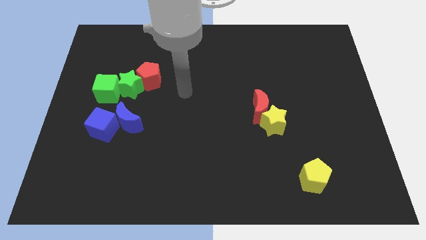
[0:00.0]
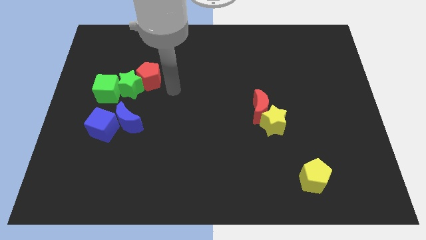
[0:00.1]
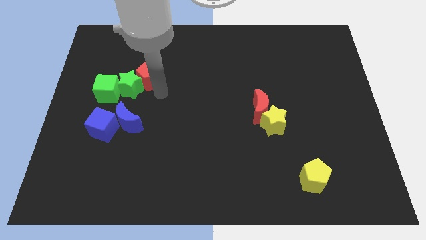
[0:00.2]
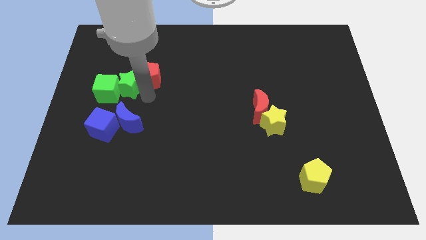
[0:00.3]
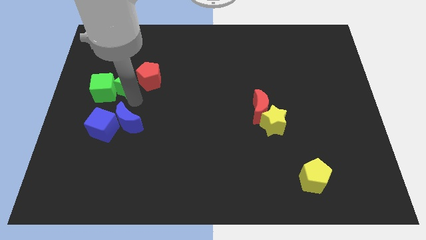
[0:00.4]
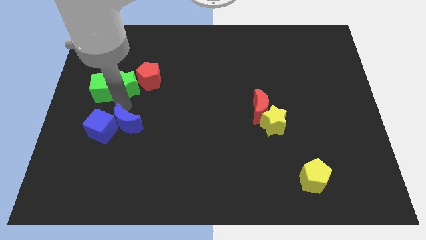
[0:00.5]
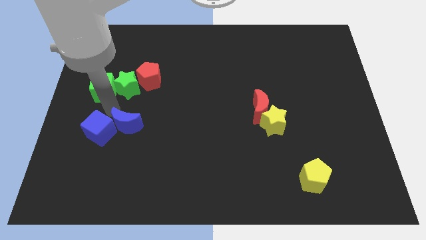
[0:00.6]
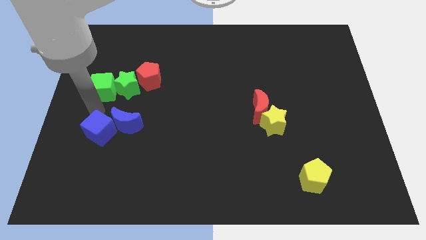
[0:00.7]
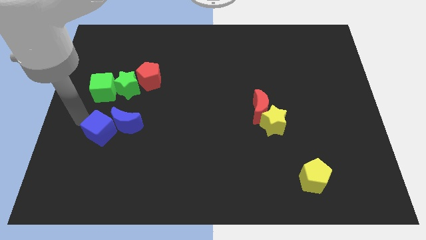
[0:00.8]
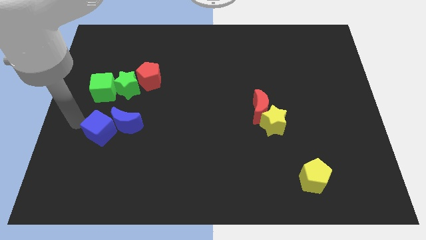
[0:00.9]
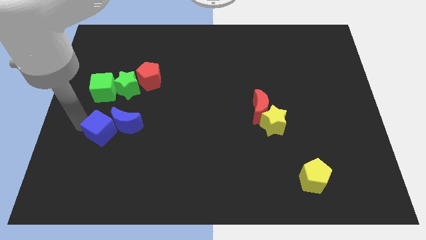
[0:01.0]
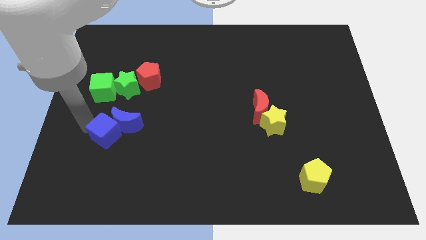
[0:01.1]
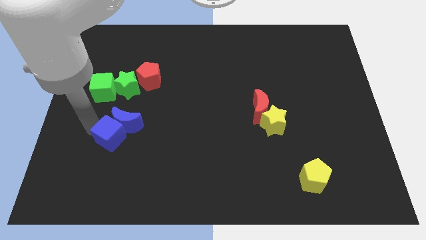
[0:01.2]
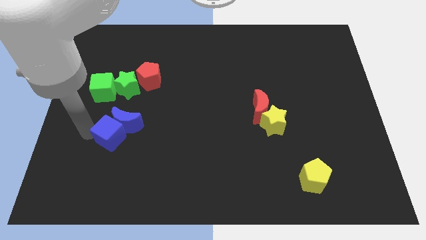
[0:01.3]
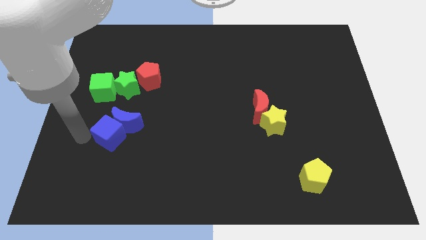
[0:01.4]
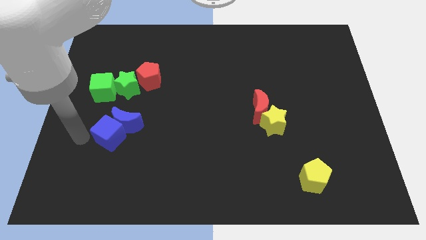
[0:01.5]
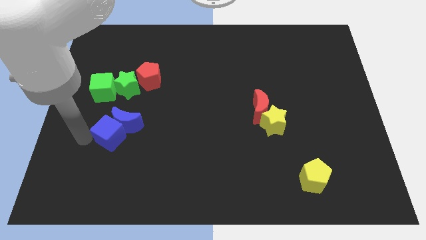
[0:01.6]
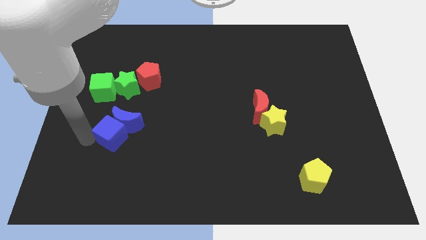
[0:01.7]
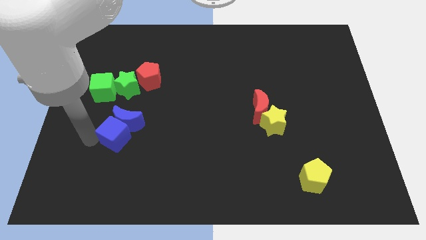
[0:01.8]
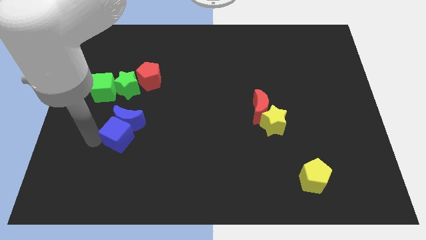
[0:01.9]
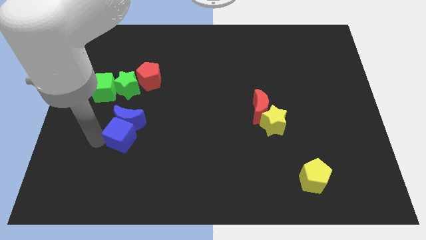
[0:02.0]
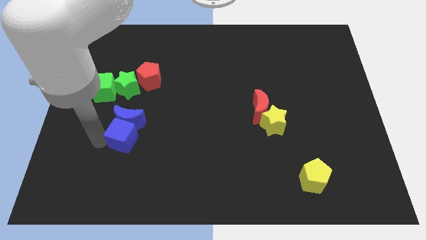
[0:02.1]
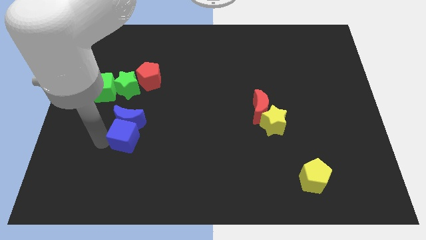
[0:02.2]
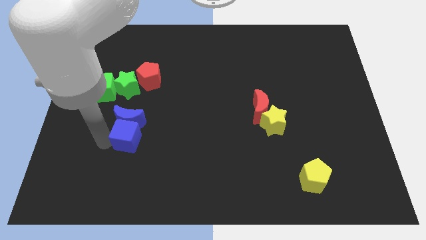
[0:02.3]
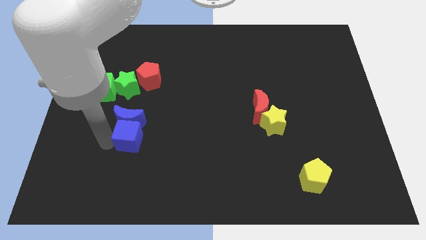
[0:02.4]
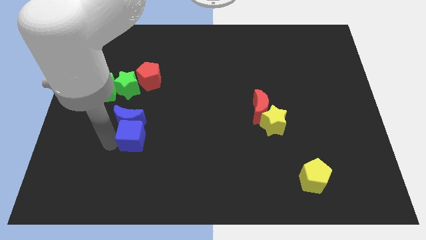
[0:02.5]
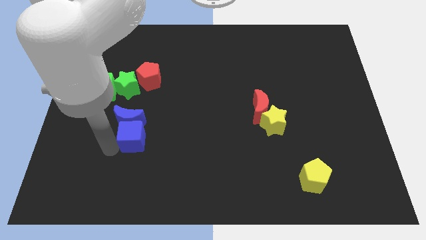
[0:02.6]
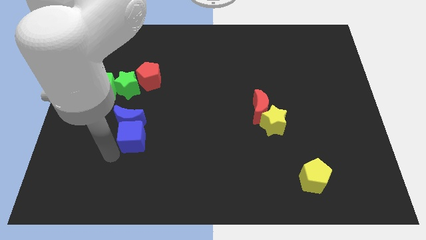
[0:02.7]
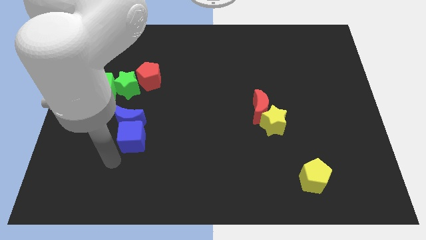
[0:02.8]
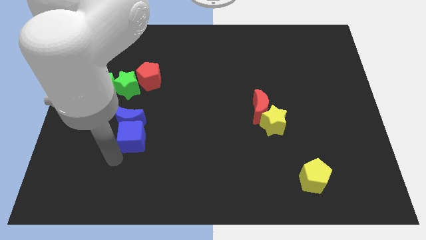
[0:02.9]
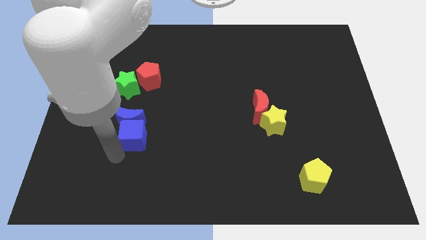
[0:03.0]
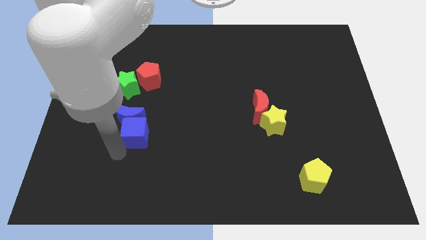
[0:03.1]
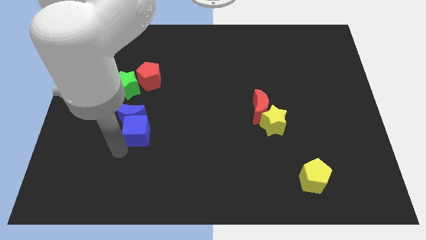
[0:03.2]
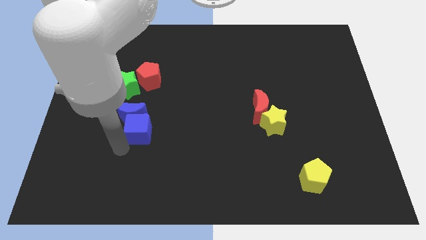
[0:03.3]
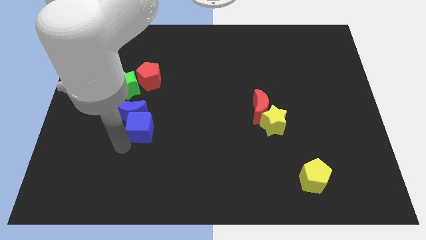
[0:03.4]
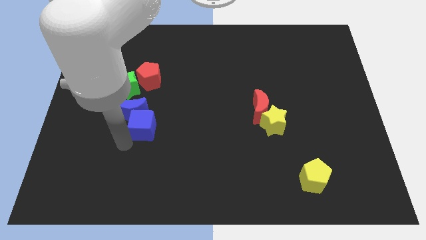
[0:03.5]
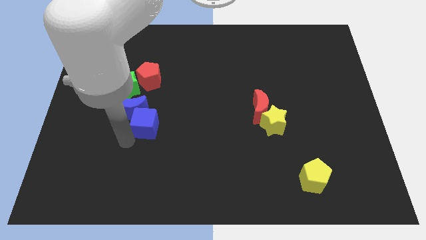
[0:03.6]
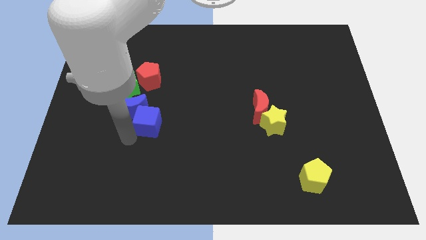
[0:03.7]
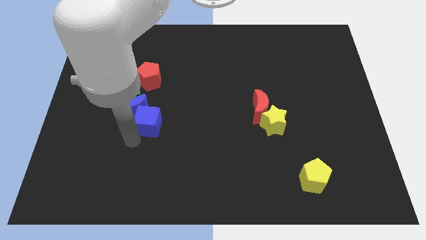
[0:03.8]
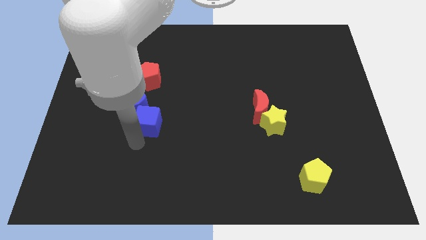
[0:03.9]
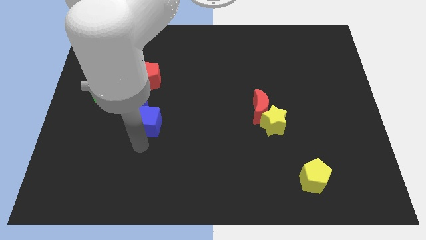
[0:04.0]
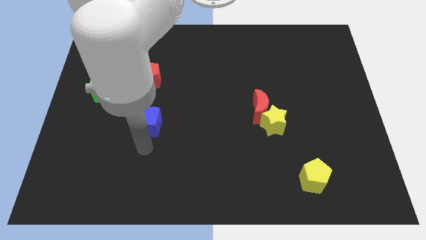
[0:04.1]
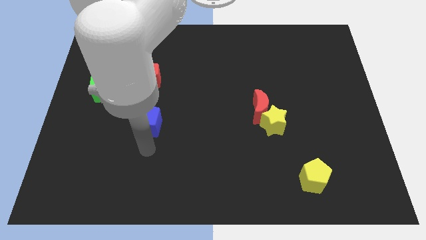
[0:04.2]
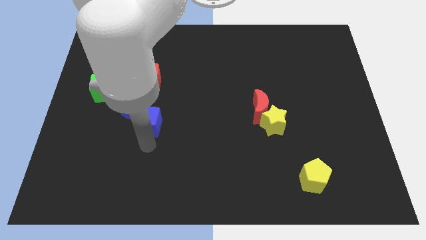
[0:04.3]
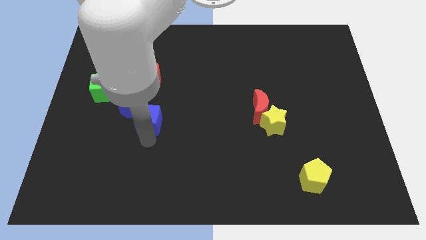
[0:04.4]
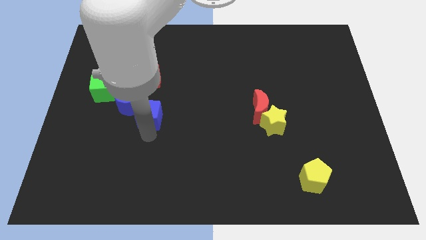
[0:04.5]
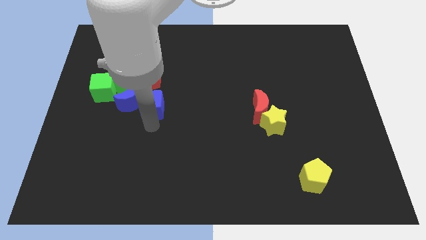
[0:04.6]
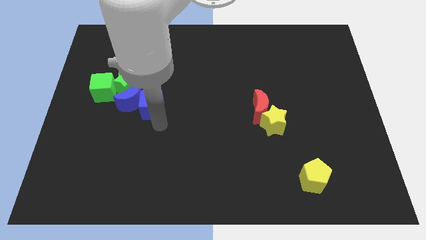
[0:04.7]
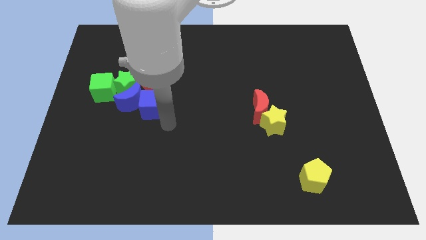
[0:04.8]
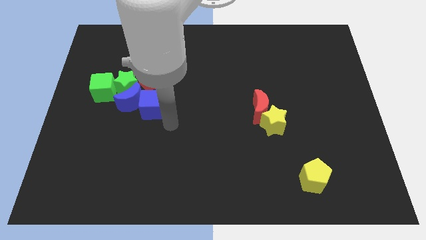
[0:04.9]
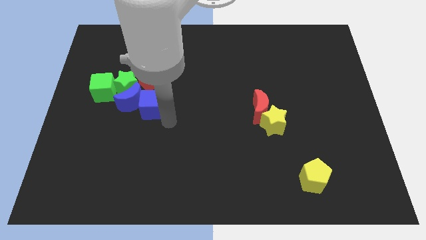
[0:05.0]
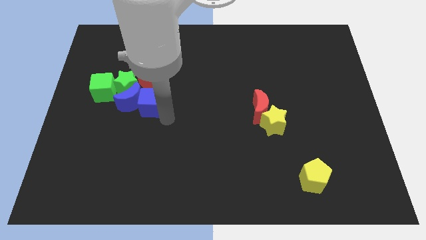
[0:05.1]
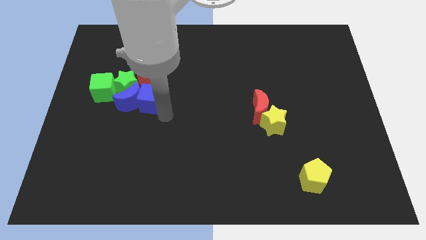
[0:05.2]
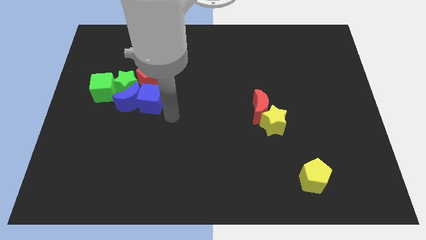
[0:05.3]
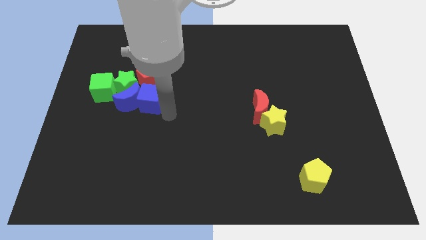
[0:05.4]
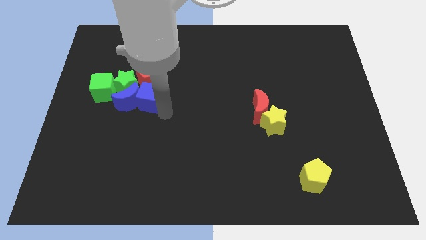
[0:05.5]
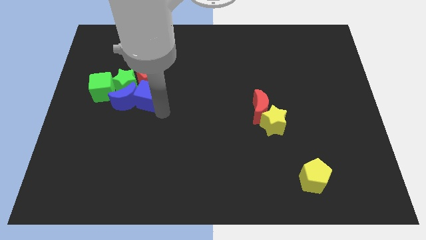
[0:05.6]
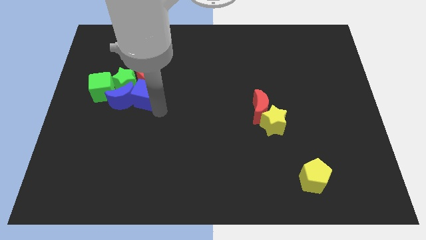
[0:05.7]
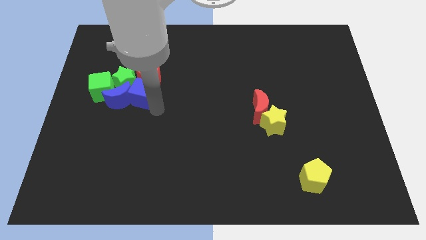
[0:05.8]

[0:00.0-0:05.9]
push the blue cube towards the green star

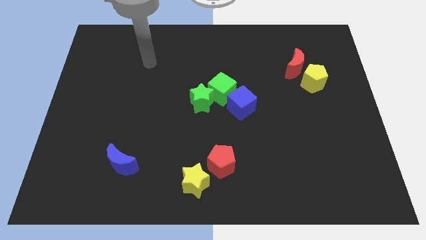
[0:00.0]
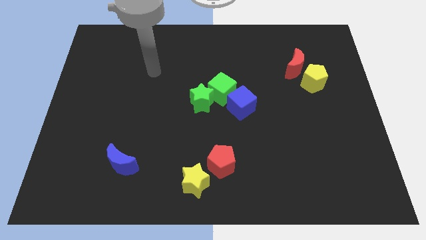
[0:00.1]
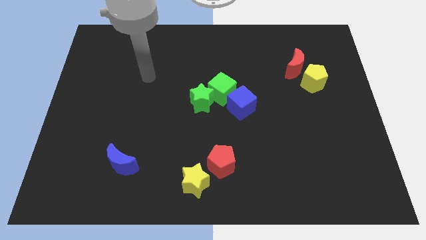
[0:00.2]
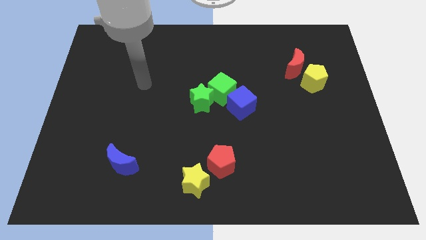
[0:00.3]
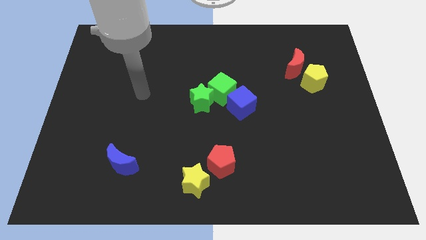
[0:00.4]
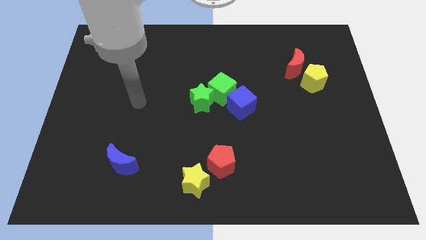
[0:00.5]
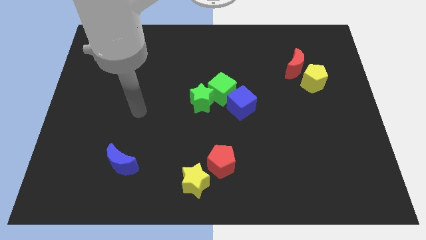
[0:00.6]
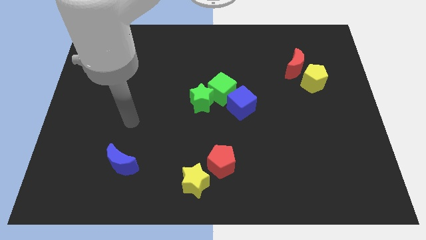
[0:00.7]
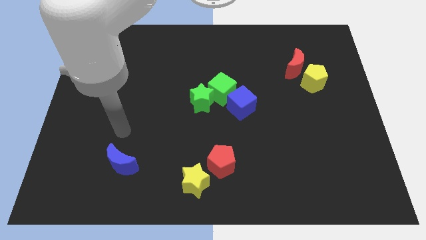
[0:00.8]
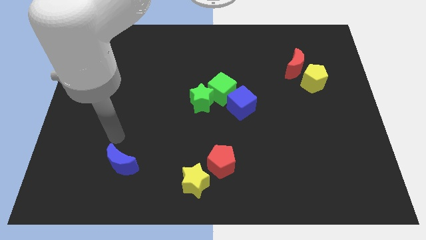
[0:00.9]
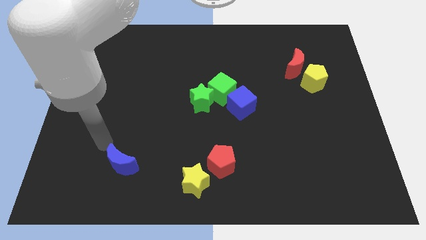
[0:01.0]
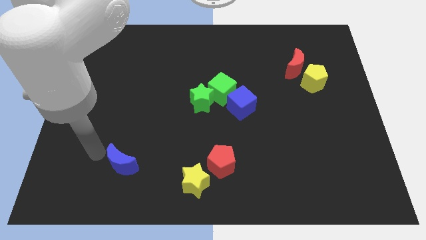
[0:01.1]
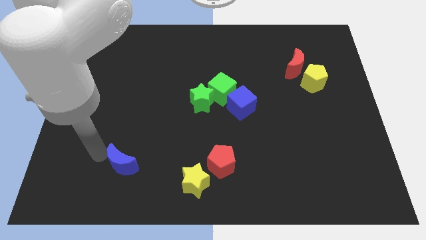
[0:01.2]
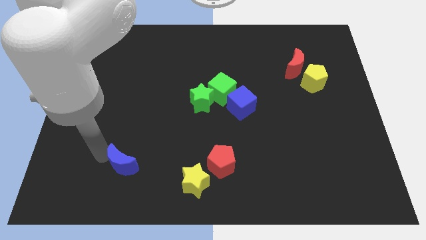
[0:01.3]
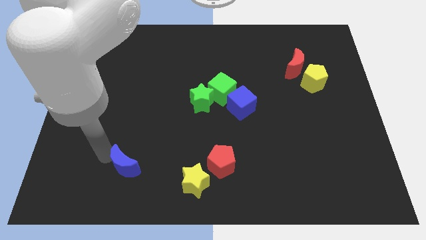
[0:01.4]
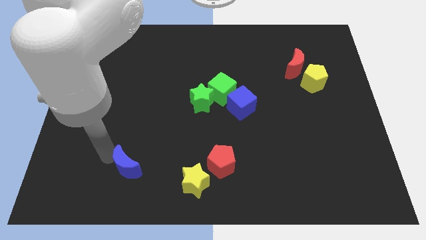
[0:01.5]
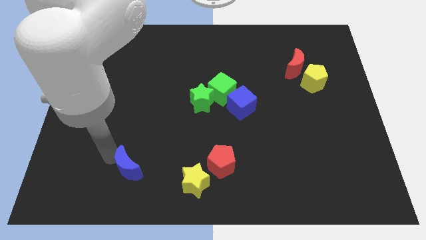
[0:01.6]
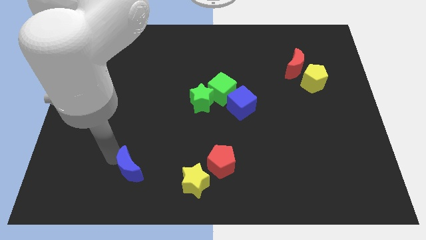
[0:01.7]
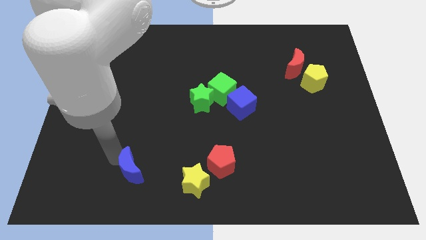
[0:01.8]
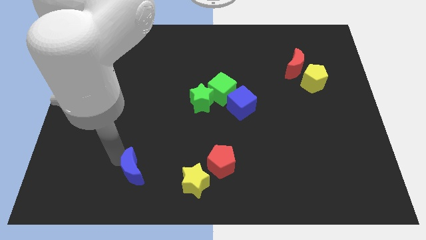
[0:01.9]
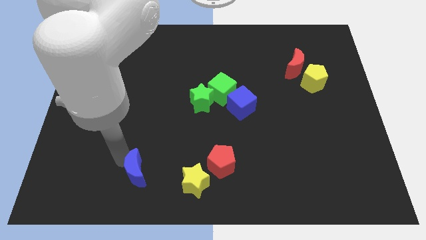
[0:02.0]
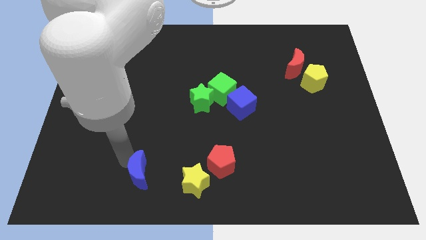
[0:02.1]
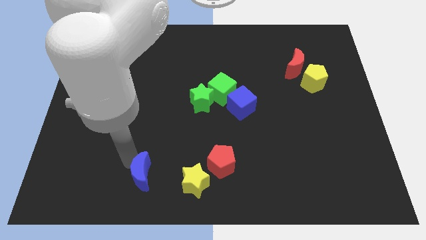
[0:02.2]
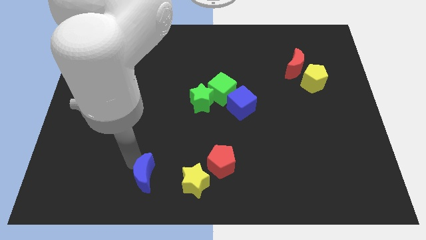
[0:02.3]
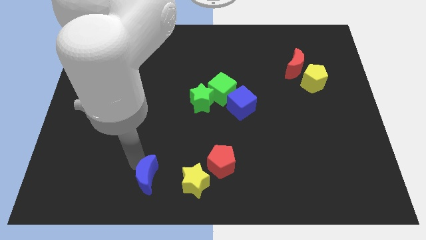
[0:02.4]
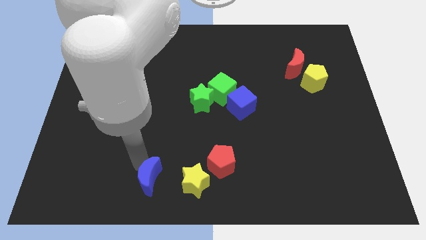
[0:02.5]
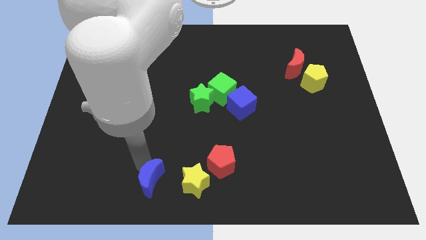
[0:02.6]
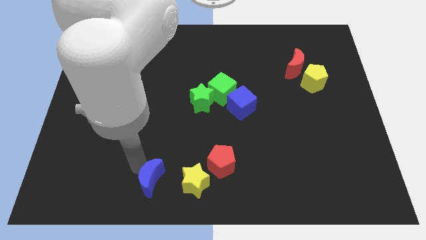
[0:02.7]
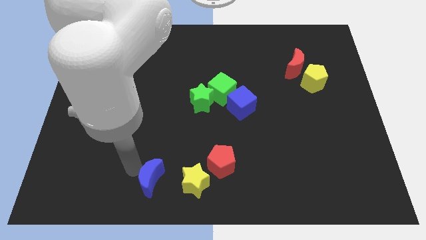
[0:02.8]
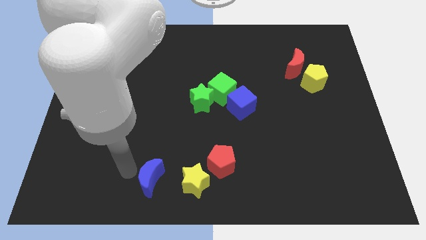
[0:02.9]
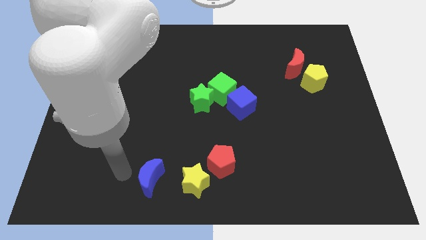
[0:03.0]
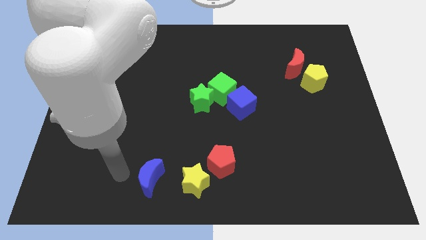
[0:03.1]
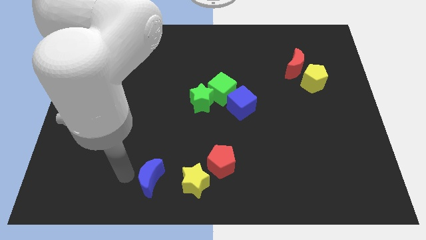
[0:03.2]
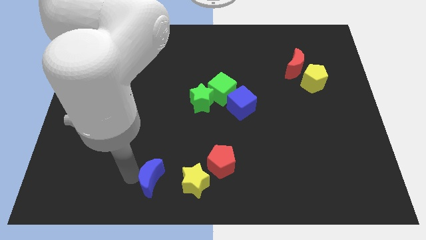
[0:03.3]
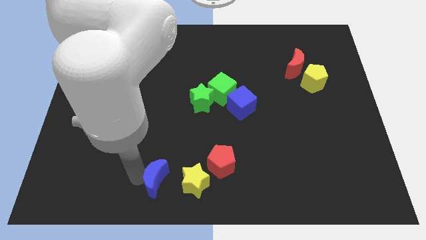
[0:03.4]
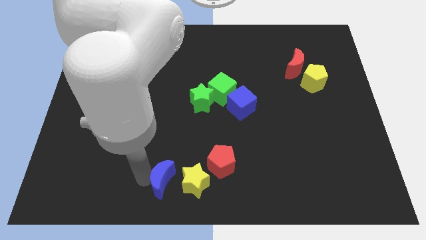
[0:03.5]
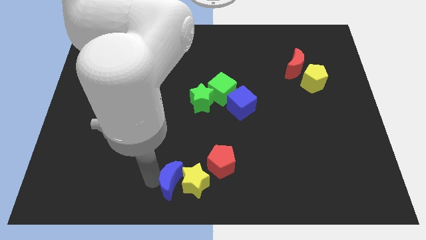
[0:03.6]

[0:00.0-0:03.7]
put the blue moon to the yellow star
